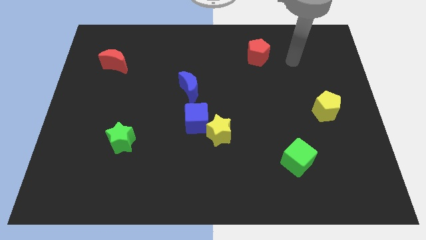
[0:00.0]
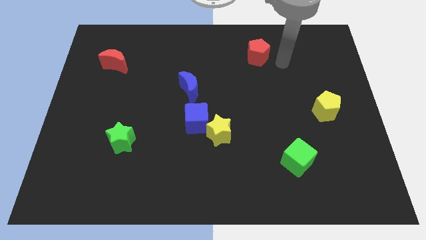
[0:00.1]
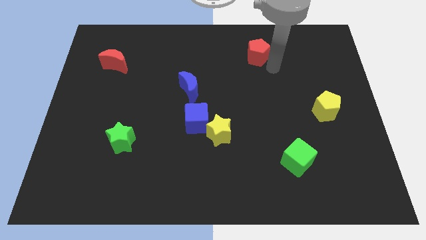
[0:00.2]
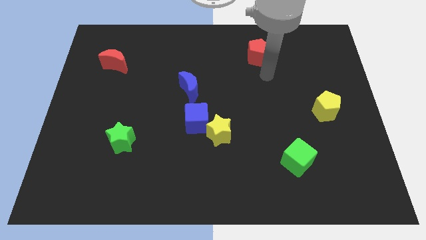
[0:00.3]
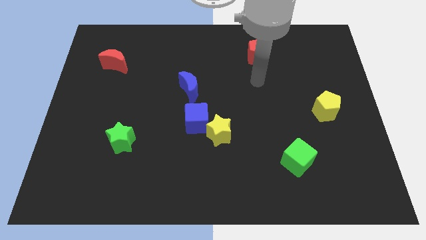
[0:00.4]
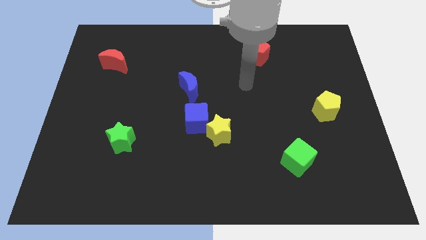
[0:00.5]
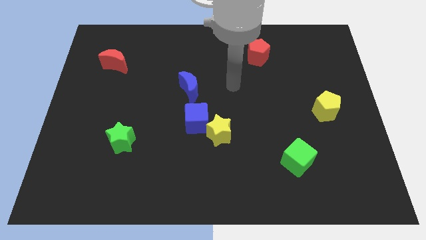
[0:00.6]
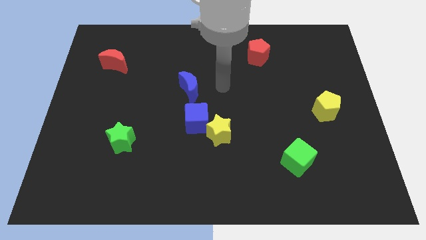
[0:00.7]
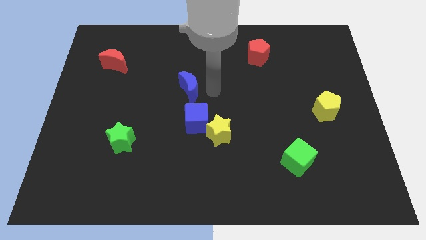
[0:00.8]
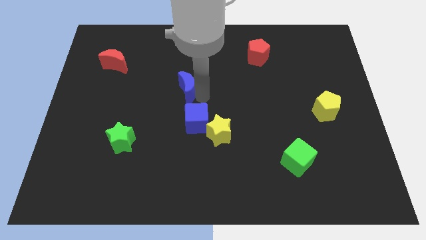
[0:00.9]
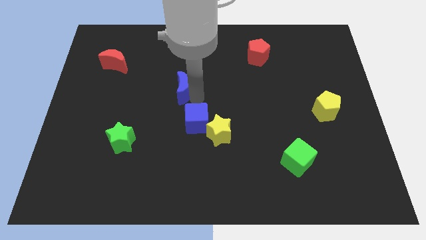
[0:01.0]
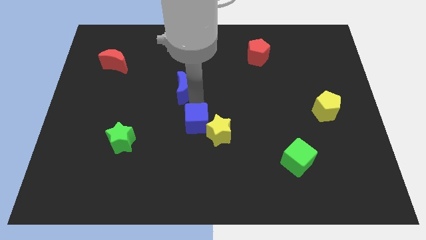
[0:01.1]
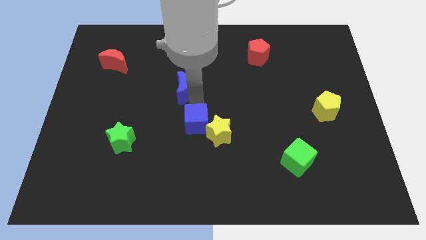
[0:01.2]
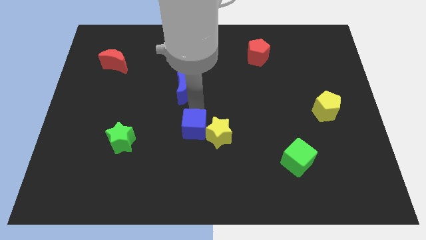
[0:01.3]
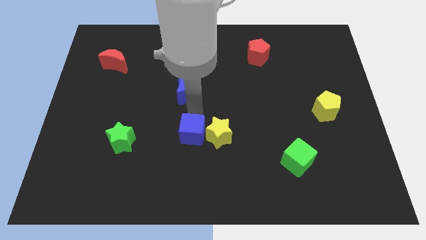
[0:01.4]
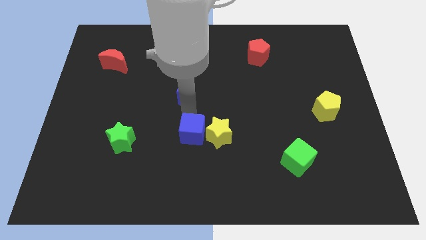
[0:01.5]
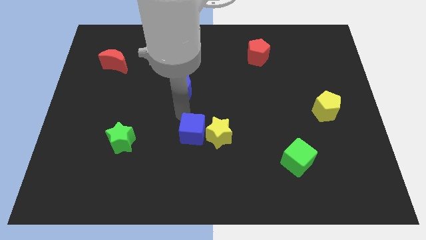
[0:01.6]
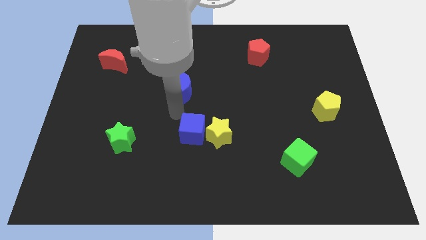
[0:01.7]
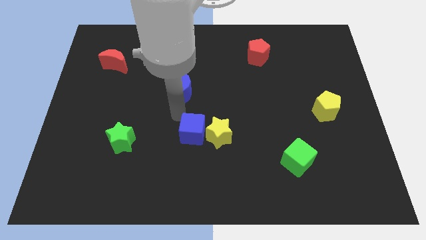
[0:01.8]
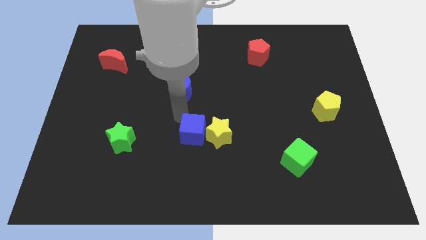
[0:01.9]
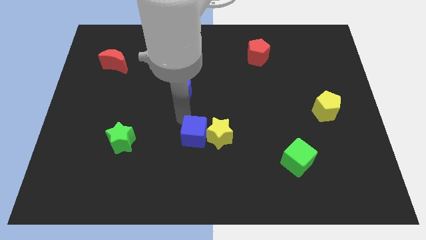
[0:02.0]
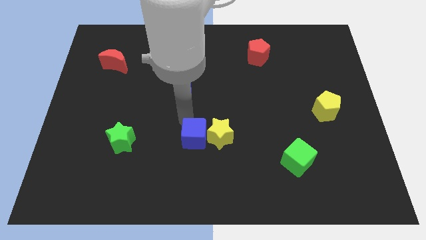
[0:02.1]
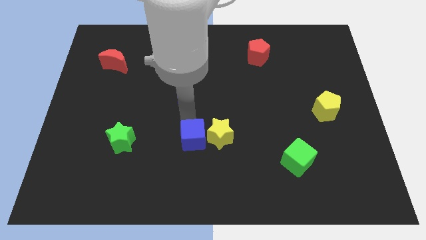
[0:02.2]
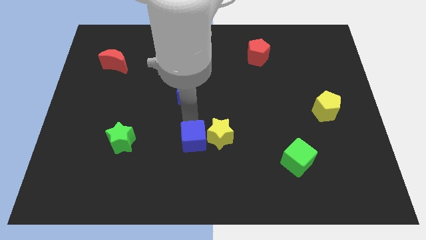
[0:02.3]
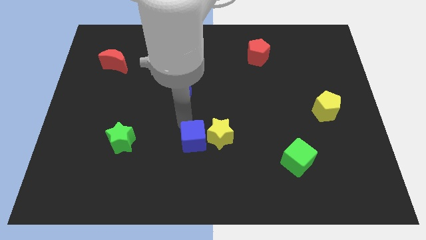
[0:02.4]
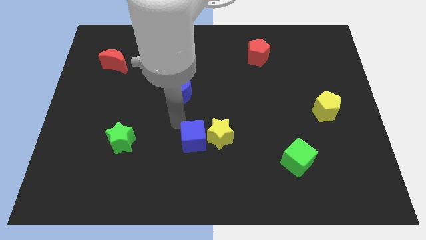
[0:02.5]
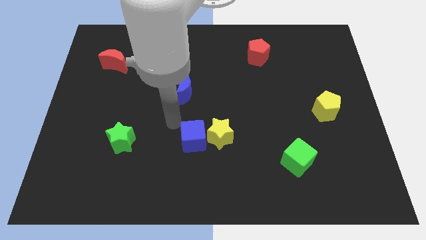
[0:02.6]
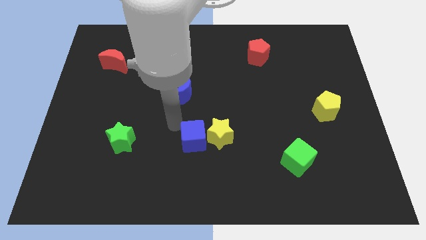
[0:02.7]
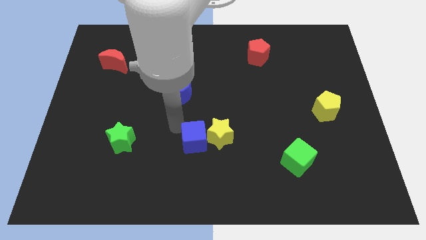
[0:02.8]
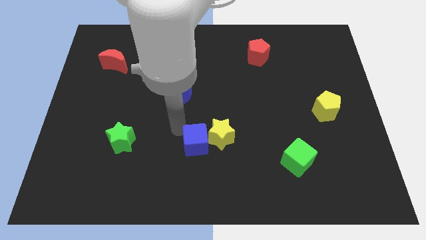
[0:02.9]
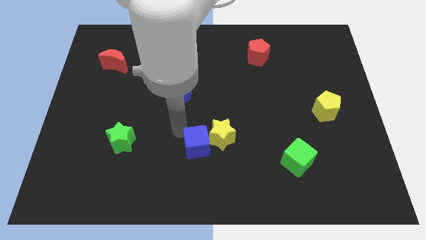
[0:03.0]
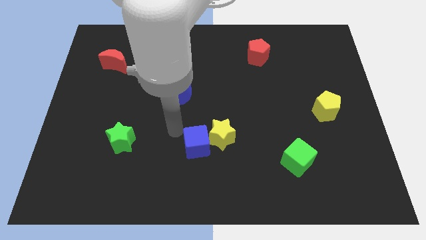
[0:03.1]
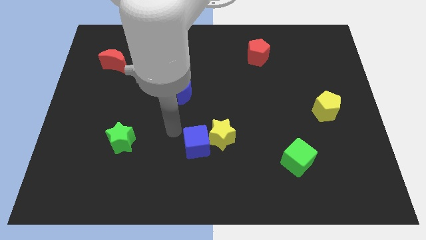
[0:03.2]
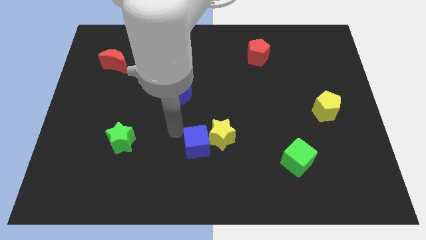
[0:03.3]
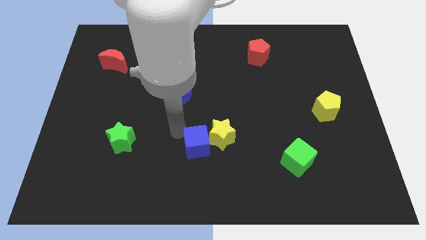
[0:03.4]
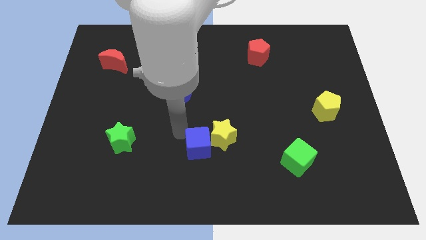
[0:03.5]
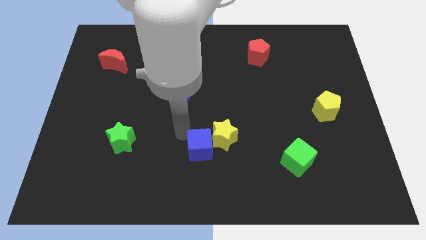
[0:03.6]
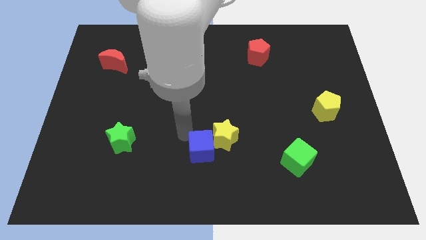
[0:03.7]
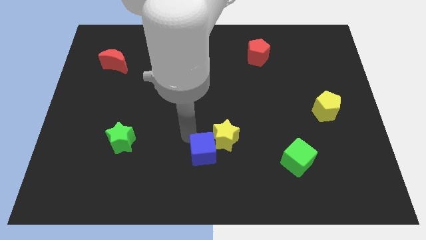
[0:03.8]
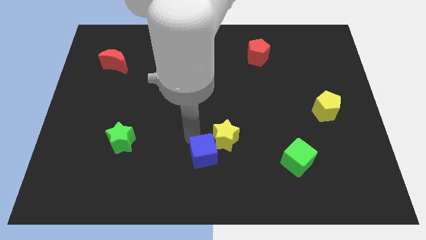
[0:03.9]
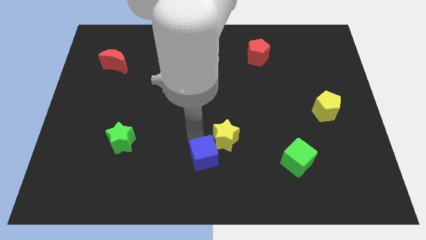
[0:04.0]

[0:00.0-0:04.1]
slightly push the blue cube downwards and right

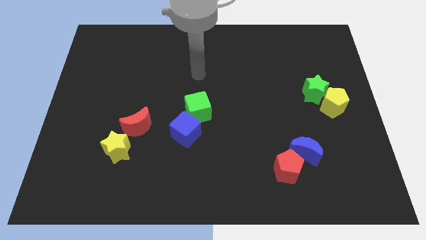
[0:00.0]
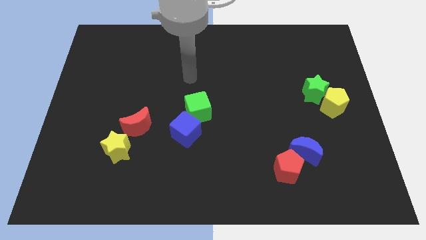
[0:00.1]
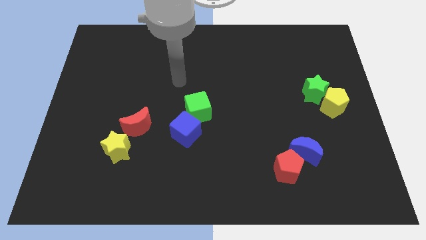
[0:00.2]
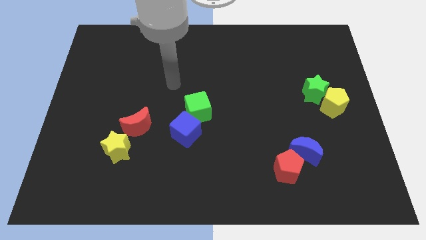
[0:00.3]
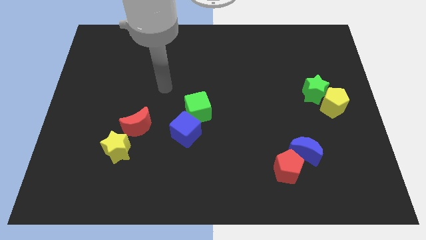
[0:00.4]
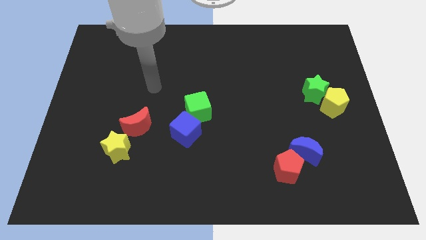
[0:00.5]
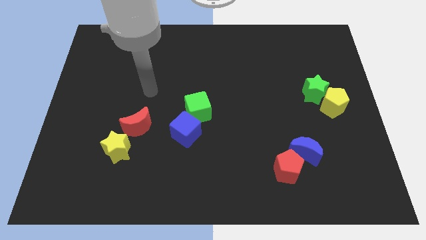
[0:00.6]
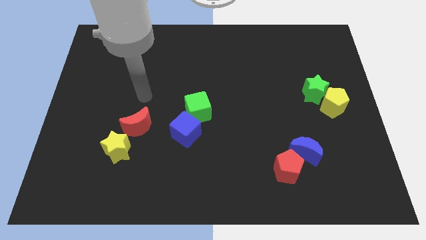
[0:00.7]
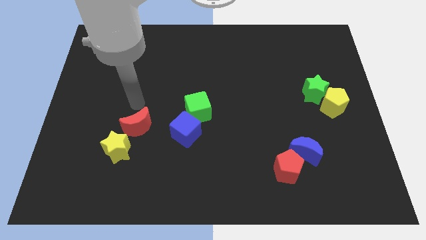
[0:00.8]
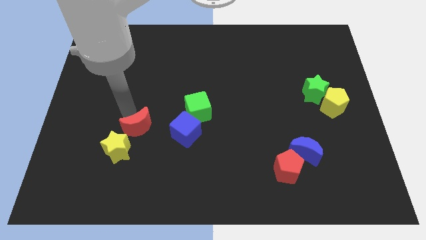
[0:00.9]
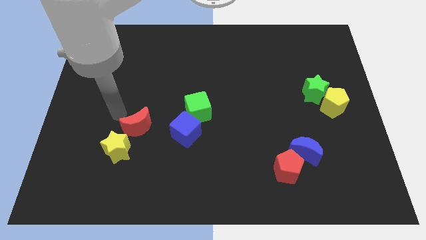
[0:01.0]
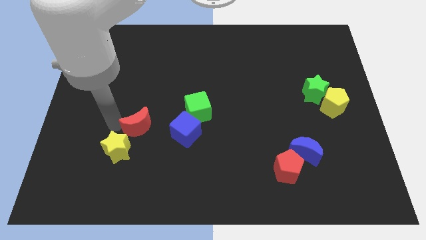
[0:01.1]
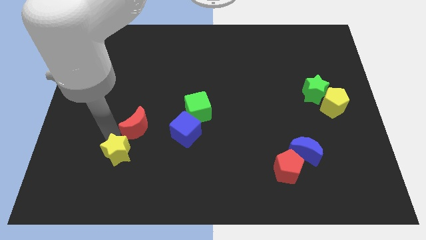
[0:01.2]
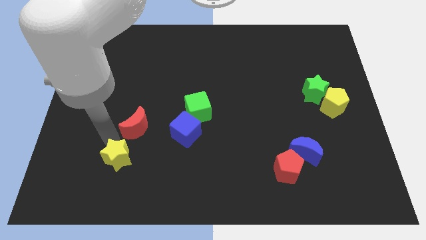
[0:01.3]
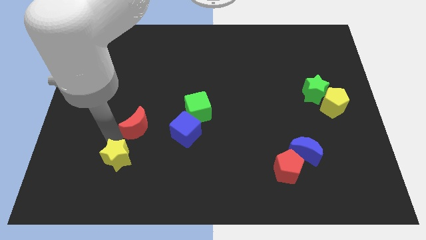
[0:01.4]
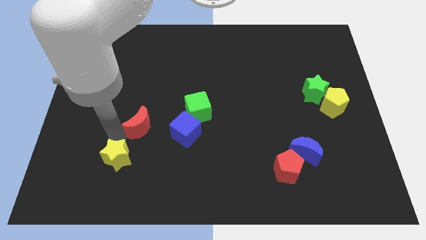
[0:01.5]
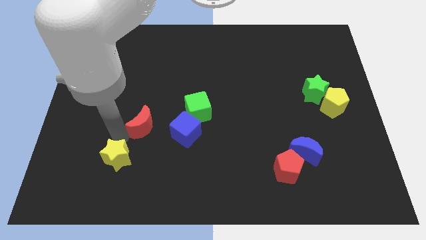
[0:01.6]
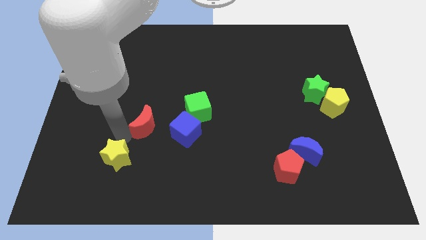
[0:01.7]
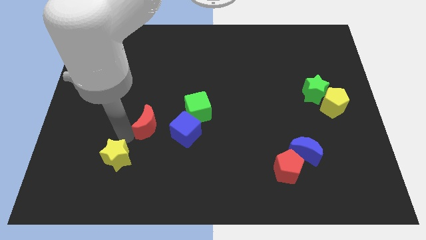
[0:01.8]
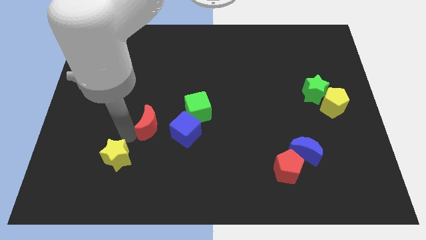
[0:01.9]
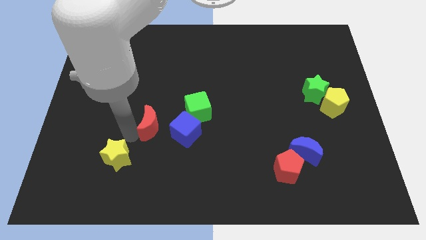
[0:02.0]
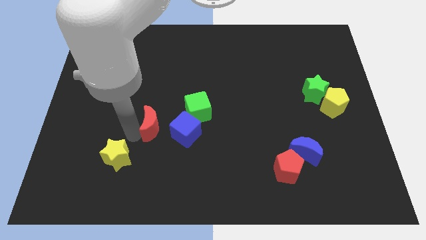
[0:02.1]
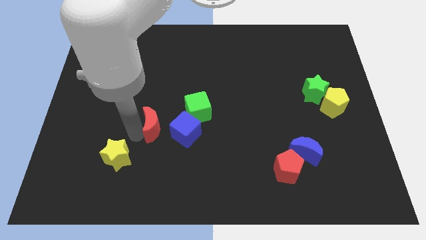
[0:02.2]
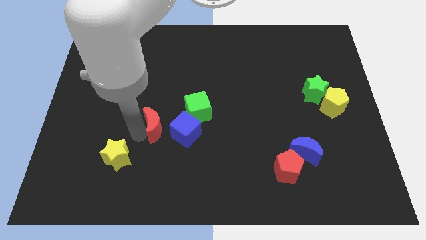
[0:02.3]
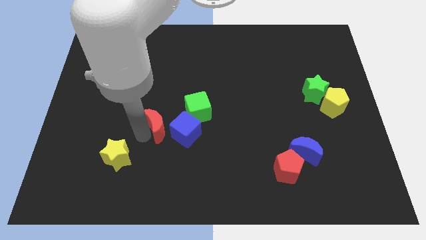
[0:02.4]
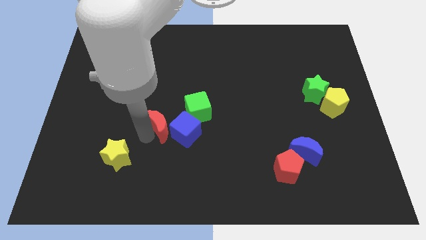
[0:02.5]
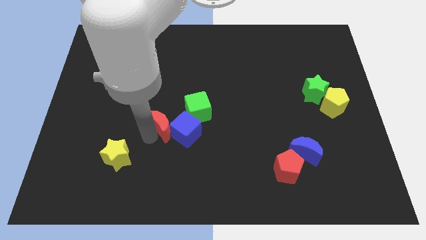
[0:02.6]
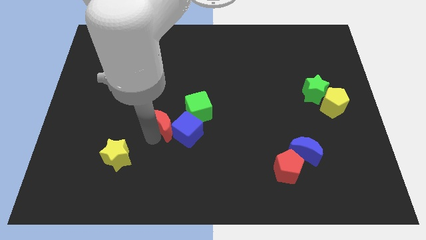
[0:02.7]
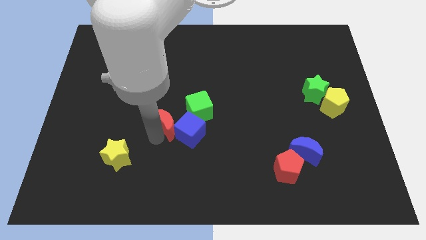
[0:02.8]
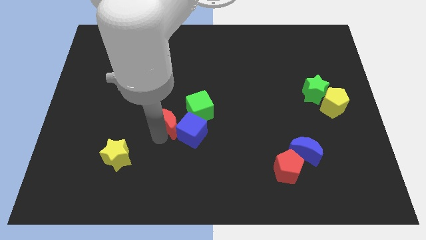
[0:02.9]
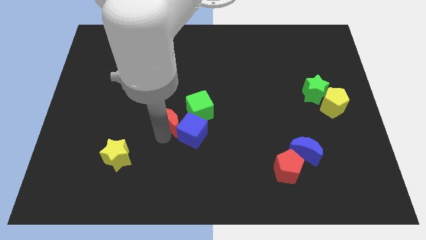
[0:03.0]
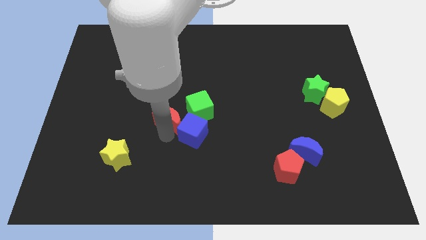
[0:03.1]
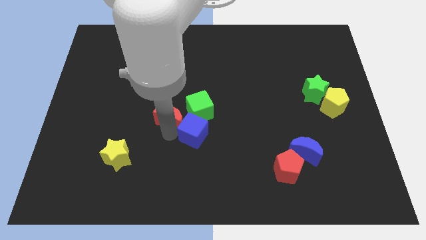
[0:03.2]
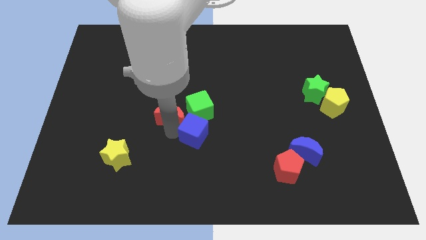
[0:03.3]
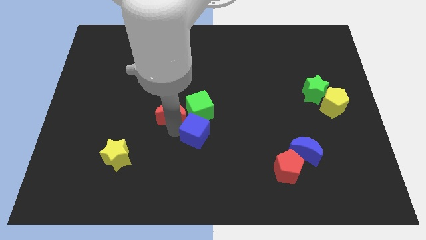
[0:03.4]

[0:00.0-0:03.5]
push the red moon somewhat diagonally upwards and right

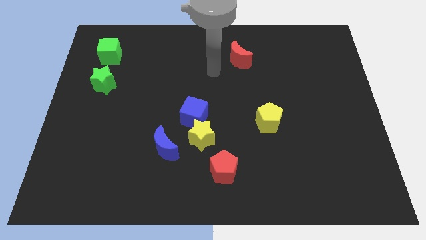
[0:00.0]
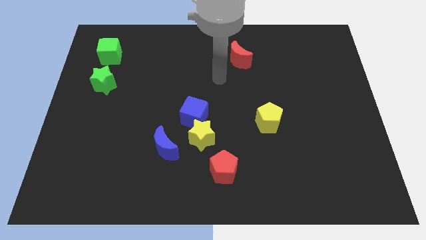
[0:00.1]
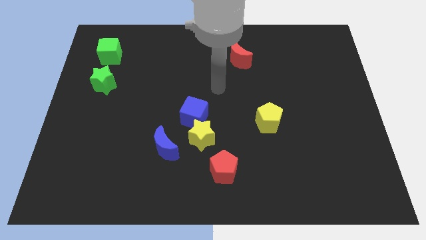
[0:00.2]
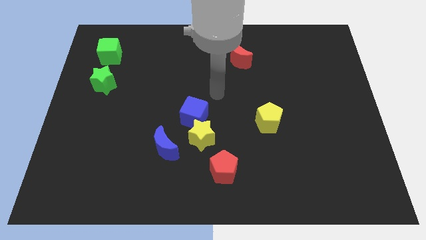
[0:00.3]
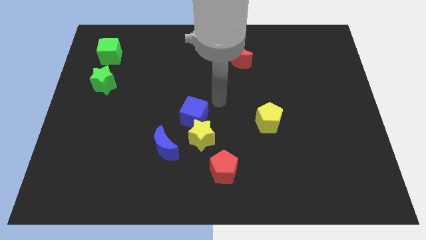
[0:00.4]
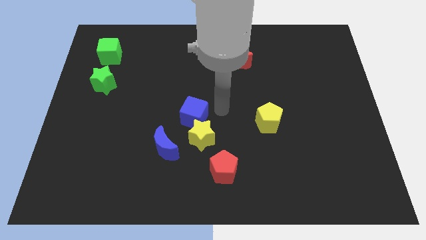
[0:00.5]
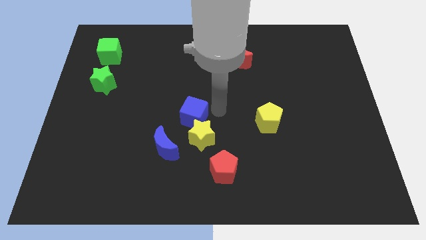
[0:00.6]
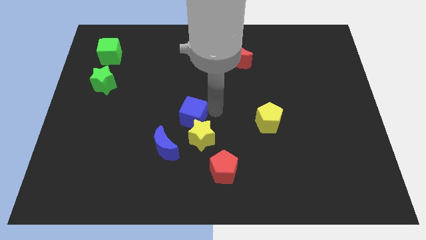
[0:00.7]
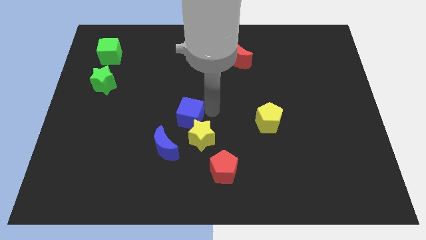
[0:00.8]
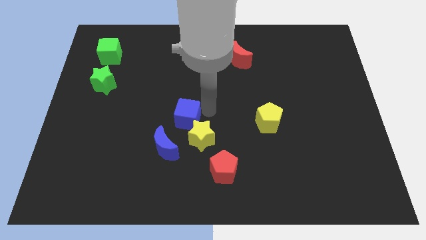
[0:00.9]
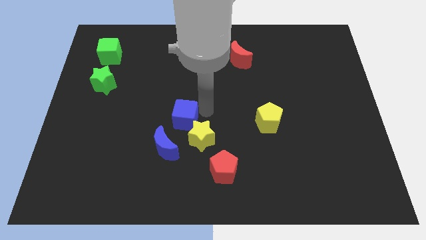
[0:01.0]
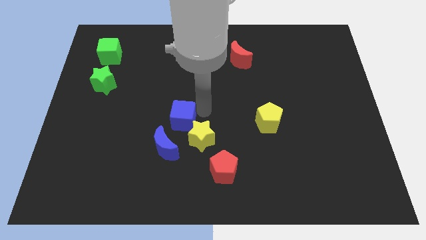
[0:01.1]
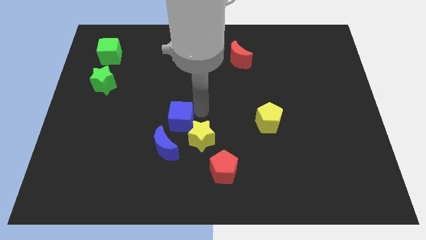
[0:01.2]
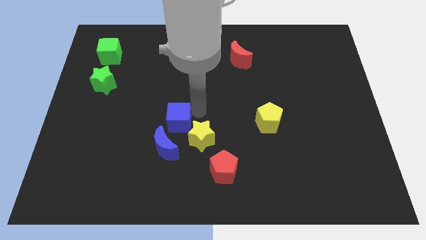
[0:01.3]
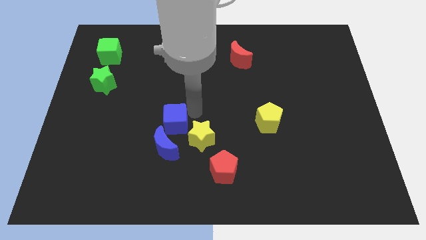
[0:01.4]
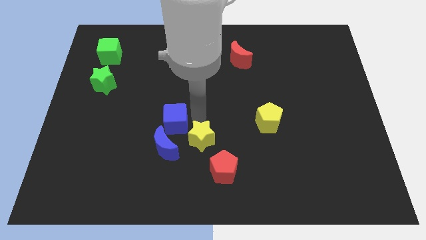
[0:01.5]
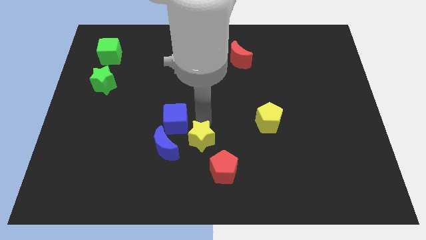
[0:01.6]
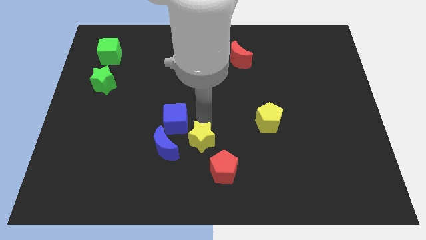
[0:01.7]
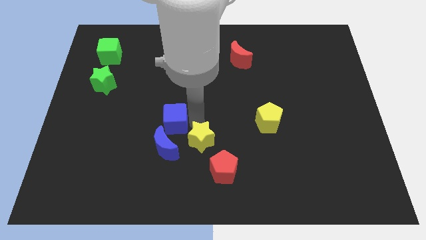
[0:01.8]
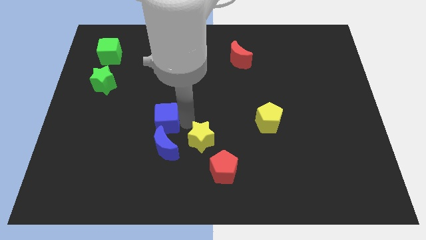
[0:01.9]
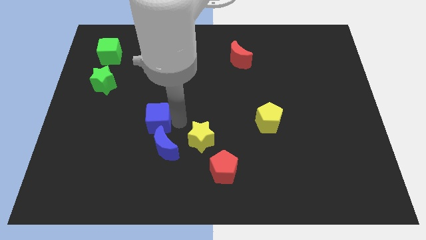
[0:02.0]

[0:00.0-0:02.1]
slightly slide the blue cube left
